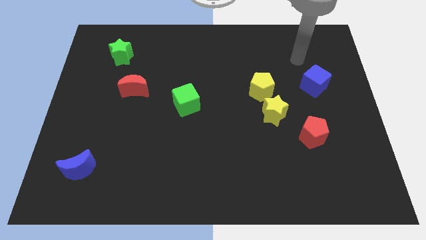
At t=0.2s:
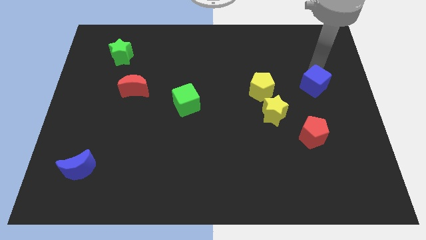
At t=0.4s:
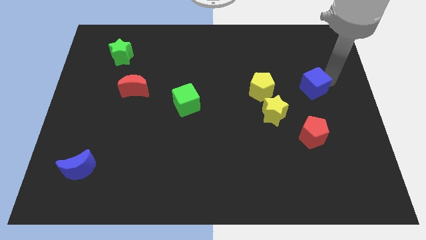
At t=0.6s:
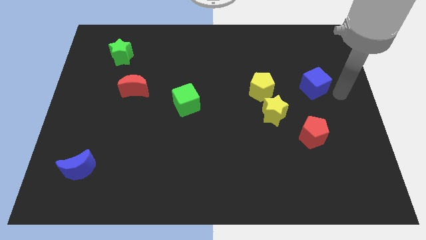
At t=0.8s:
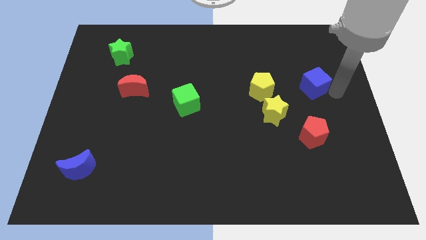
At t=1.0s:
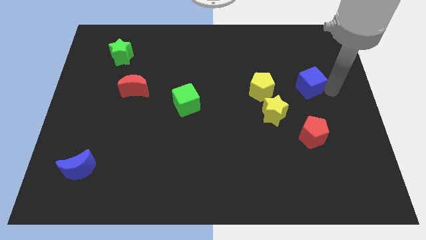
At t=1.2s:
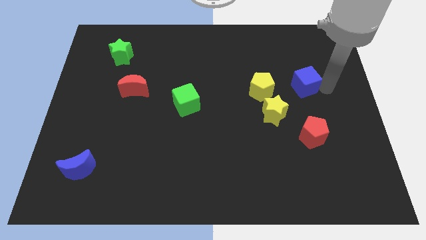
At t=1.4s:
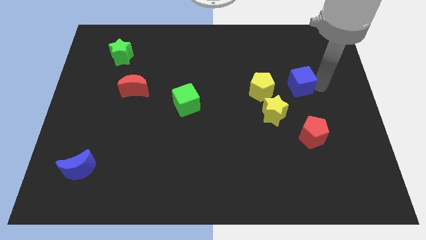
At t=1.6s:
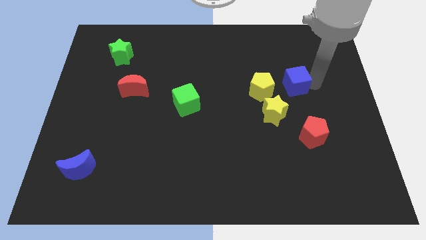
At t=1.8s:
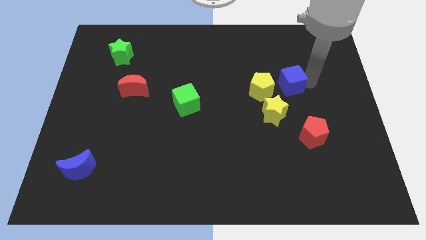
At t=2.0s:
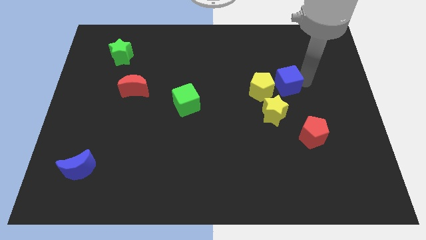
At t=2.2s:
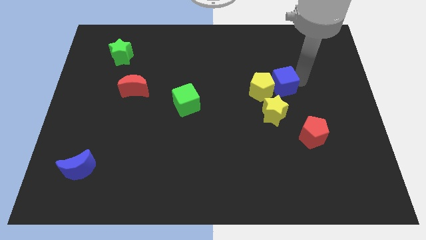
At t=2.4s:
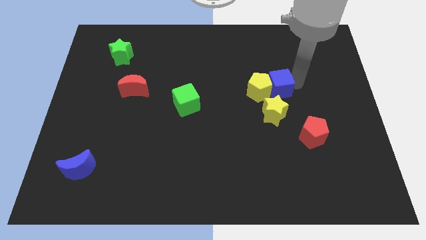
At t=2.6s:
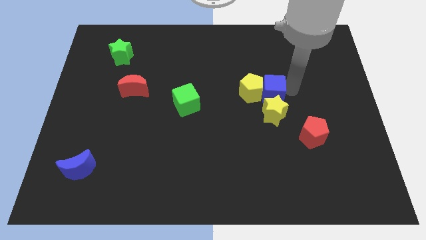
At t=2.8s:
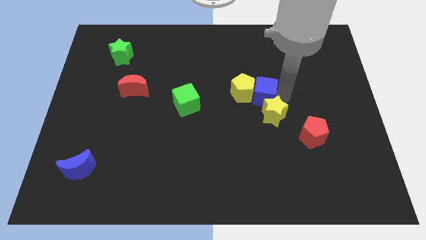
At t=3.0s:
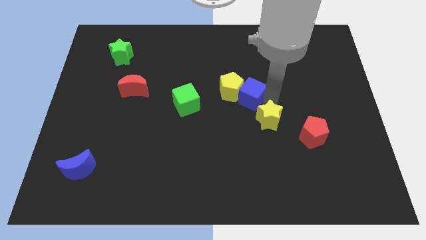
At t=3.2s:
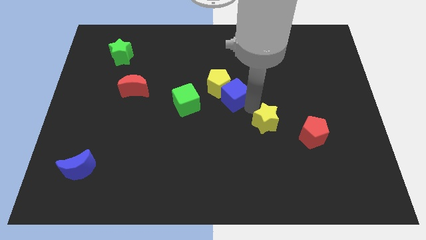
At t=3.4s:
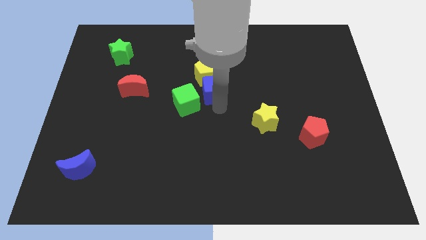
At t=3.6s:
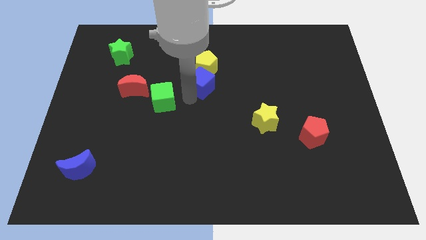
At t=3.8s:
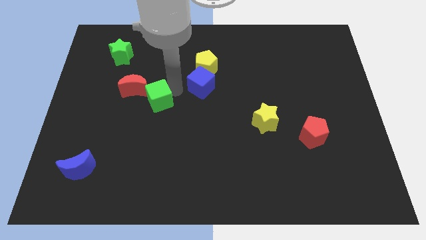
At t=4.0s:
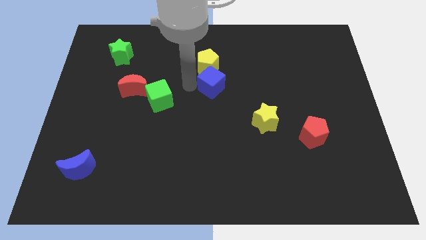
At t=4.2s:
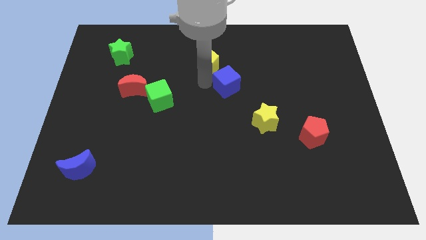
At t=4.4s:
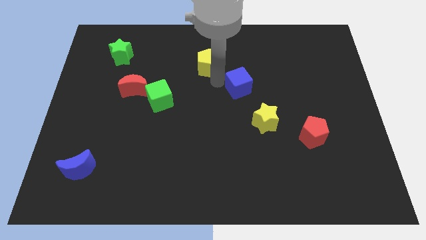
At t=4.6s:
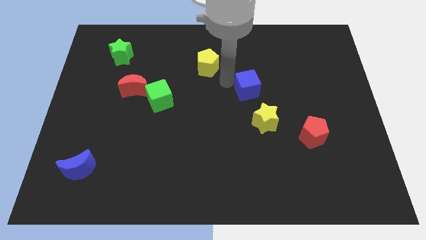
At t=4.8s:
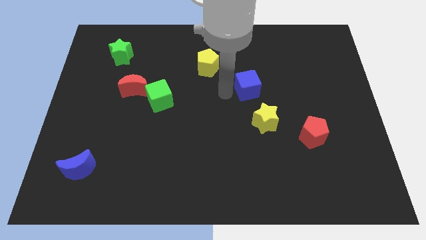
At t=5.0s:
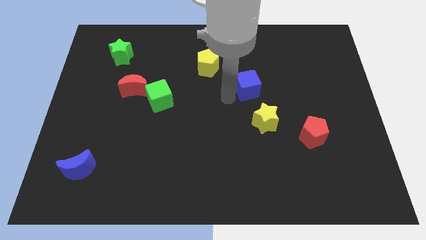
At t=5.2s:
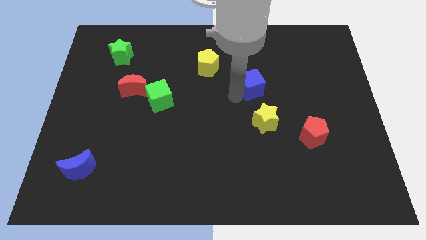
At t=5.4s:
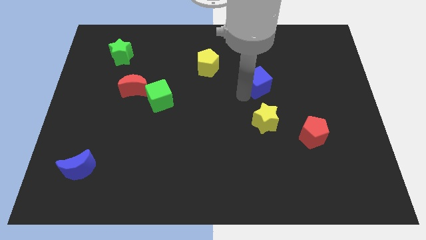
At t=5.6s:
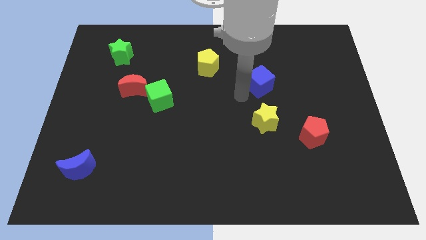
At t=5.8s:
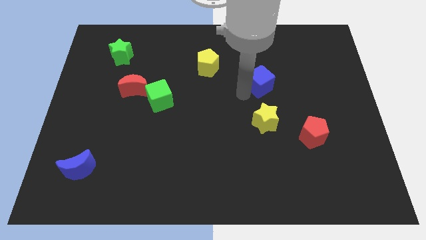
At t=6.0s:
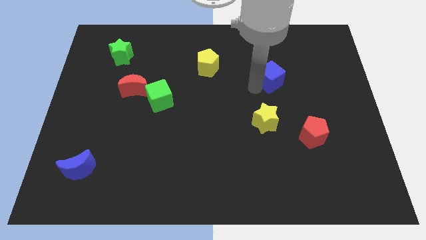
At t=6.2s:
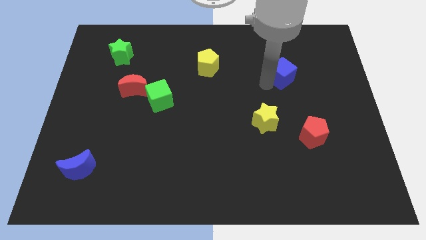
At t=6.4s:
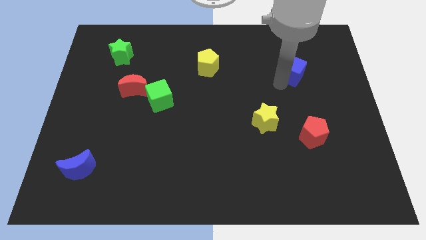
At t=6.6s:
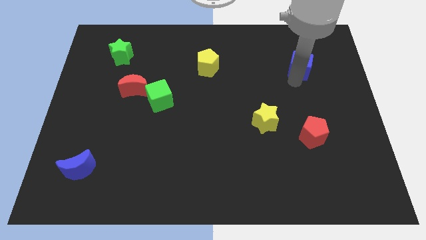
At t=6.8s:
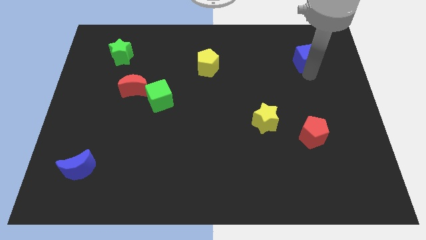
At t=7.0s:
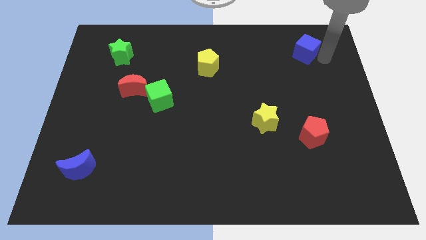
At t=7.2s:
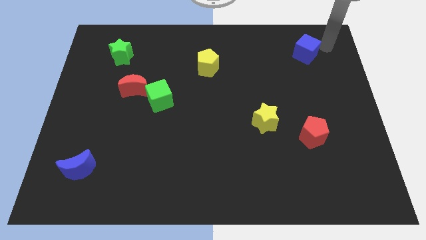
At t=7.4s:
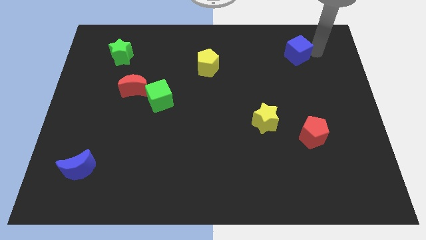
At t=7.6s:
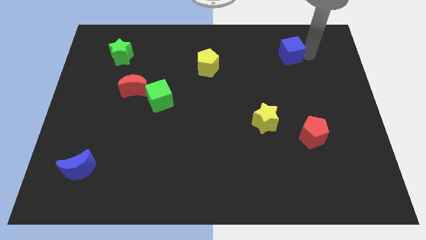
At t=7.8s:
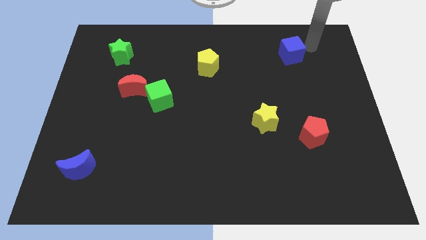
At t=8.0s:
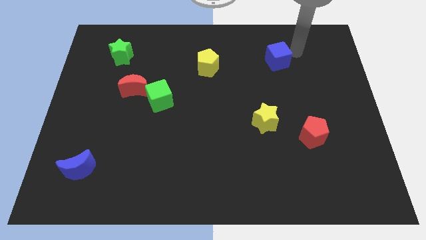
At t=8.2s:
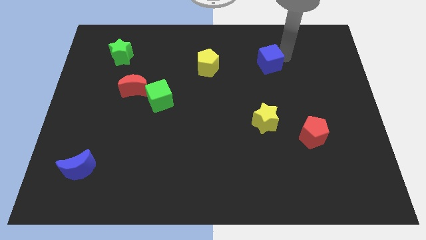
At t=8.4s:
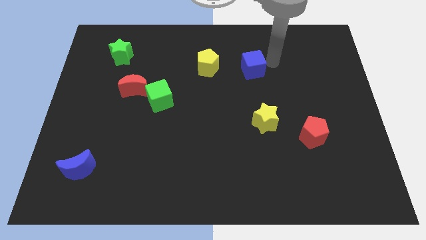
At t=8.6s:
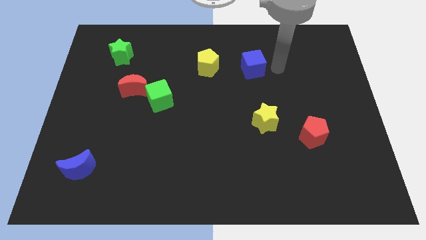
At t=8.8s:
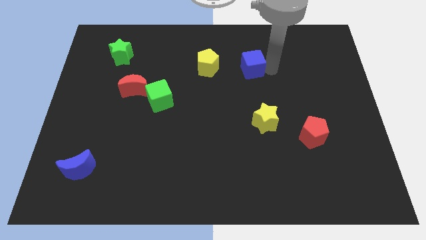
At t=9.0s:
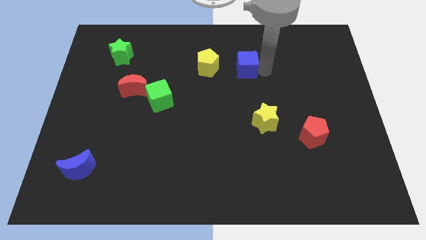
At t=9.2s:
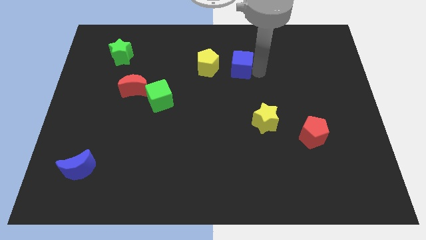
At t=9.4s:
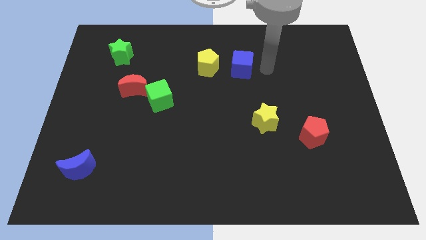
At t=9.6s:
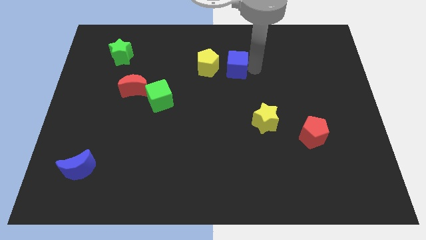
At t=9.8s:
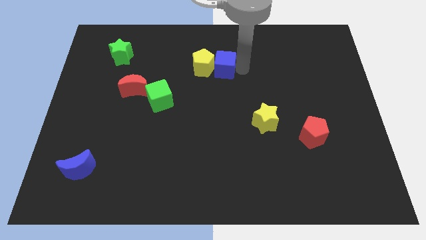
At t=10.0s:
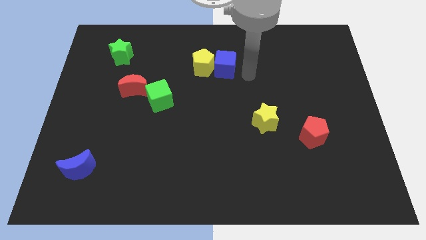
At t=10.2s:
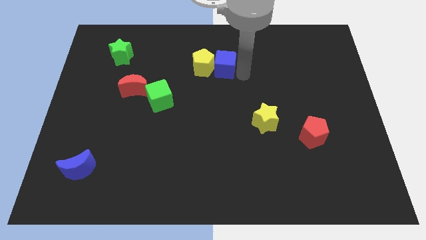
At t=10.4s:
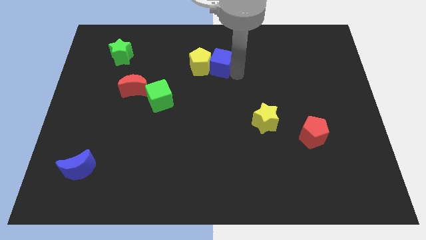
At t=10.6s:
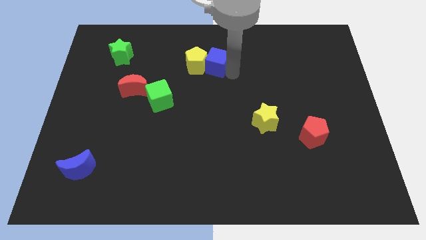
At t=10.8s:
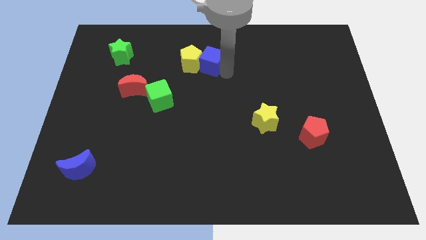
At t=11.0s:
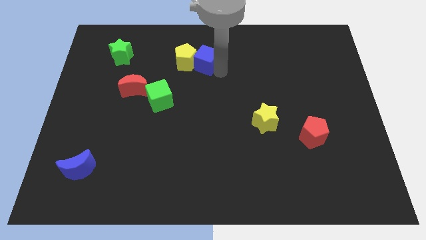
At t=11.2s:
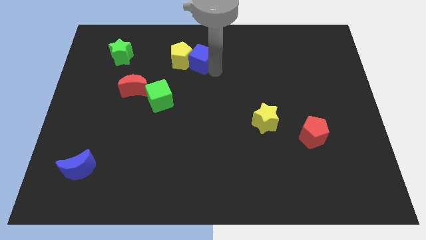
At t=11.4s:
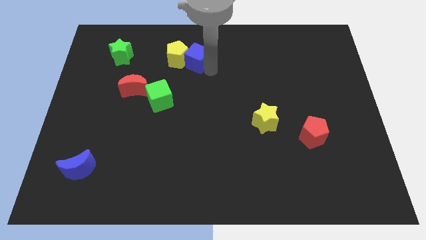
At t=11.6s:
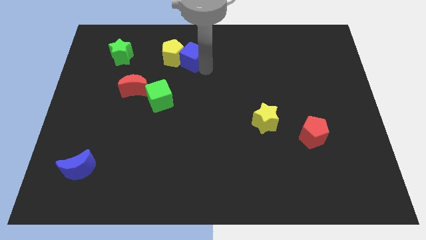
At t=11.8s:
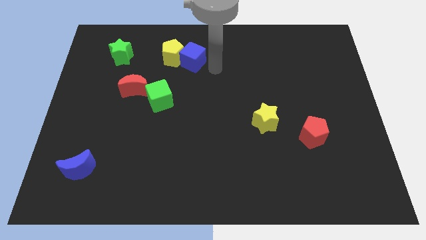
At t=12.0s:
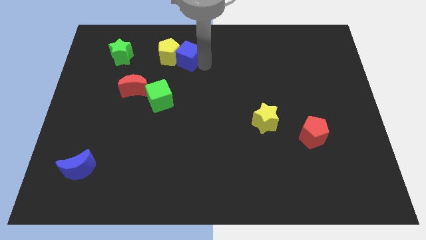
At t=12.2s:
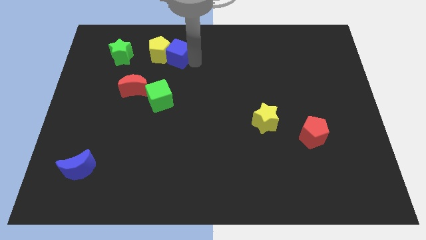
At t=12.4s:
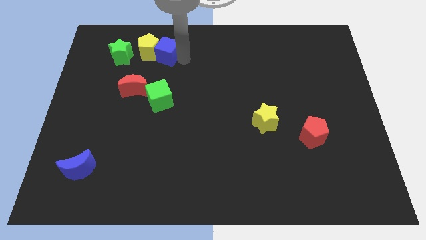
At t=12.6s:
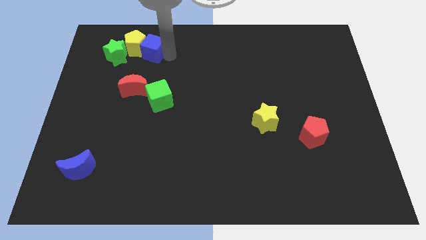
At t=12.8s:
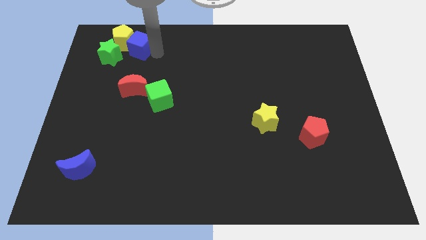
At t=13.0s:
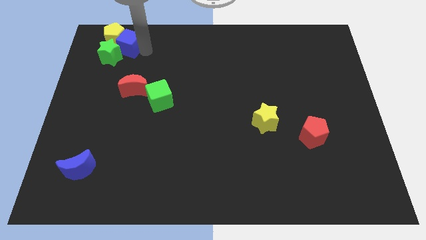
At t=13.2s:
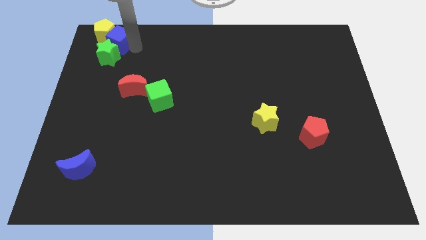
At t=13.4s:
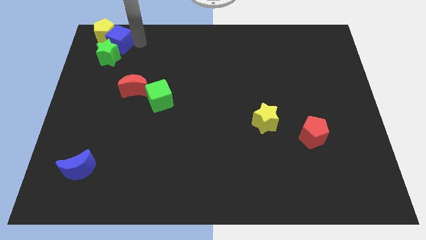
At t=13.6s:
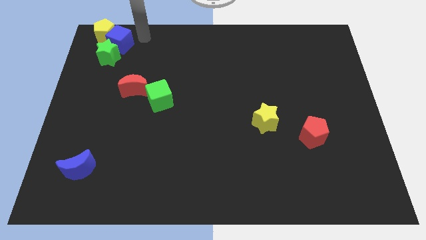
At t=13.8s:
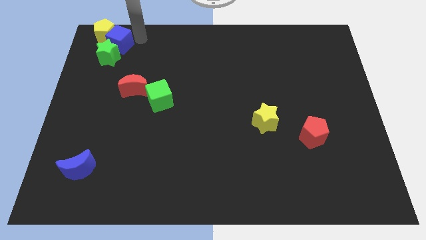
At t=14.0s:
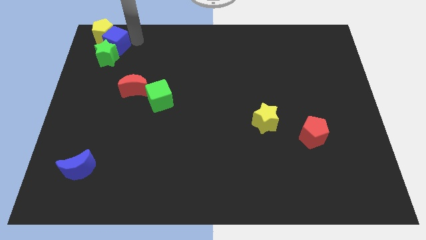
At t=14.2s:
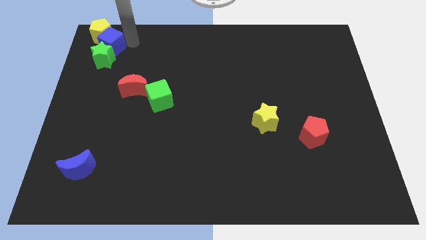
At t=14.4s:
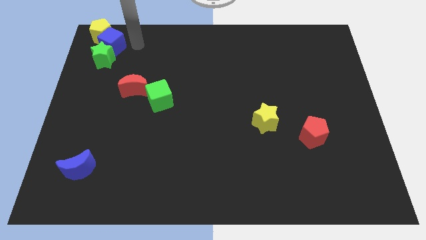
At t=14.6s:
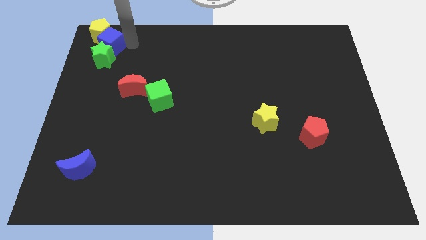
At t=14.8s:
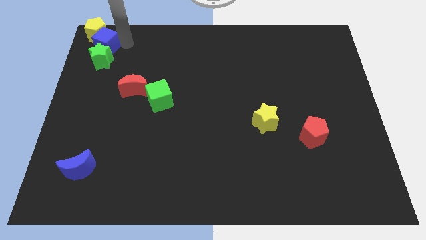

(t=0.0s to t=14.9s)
put the blue cube to the top left of the board
